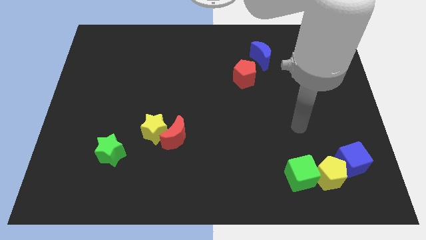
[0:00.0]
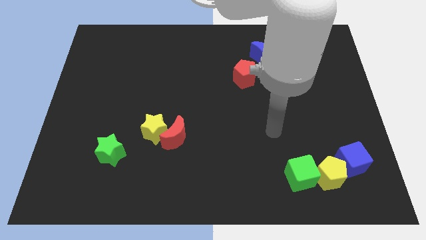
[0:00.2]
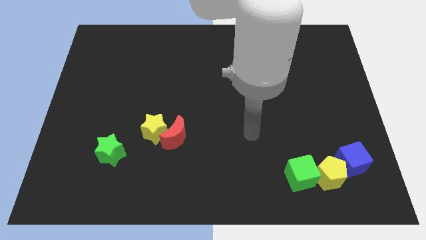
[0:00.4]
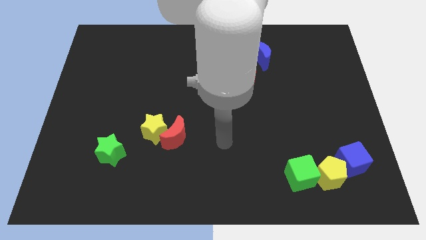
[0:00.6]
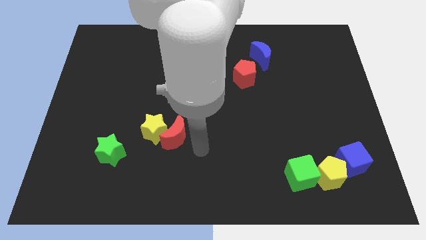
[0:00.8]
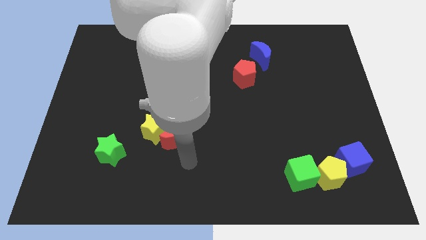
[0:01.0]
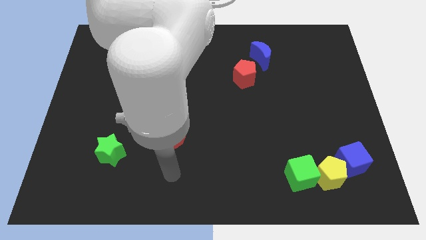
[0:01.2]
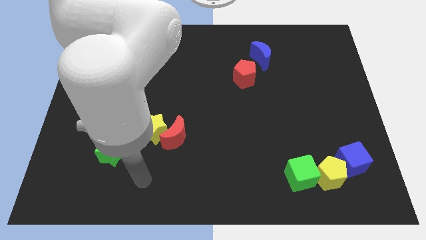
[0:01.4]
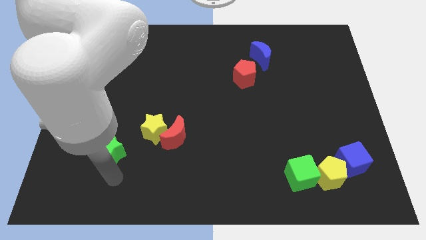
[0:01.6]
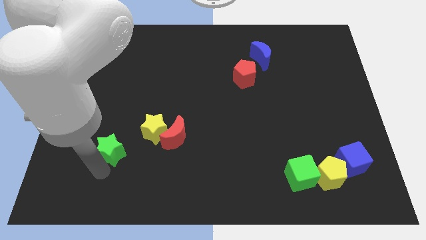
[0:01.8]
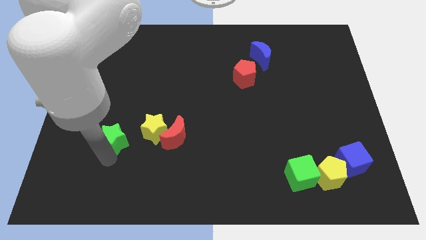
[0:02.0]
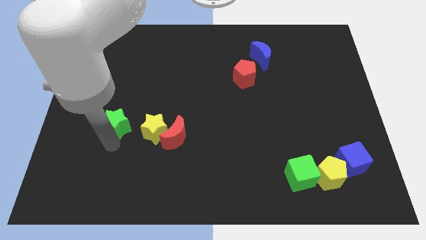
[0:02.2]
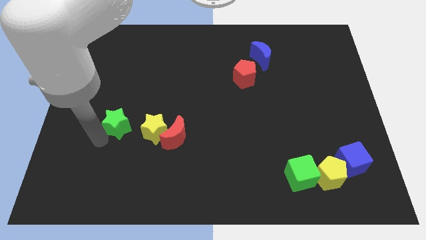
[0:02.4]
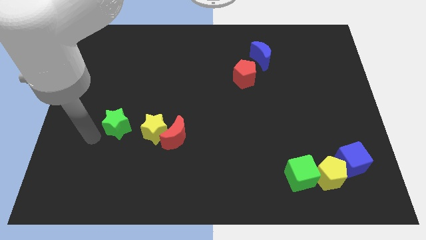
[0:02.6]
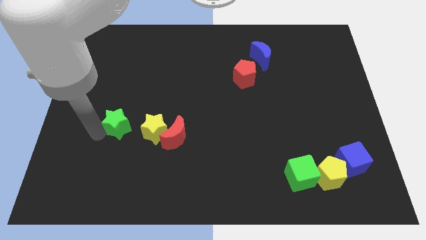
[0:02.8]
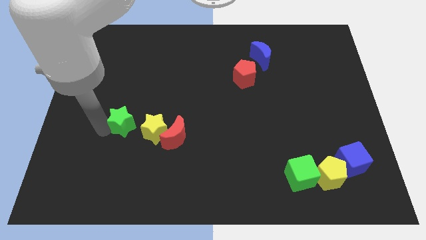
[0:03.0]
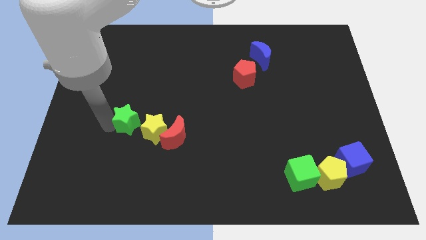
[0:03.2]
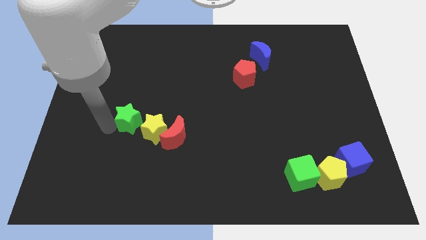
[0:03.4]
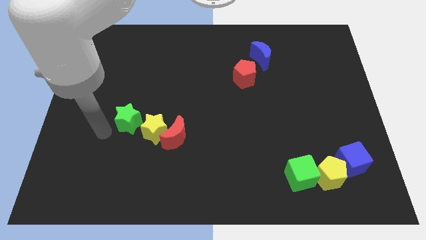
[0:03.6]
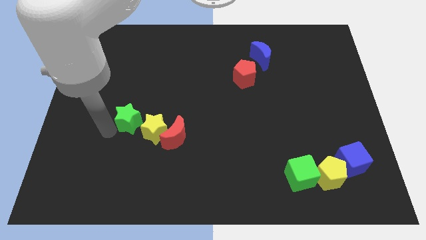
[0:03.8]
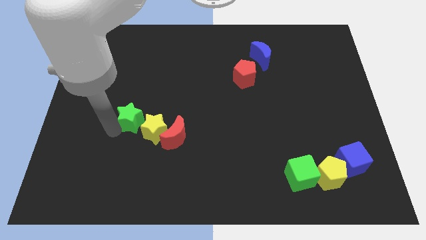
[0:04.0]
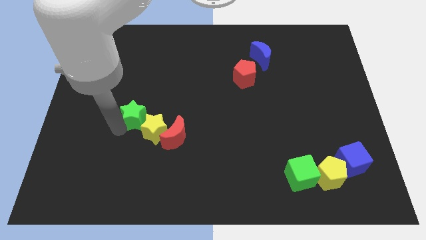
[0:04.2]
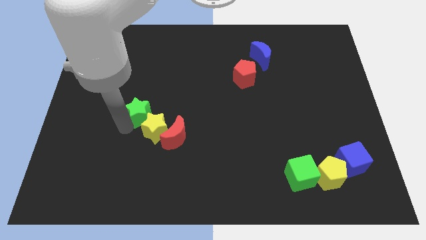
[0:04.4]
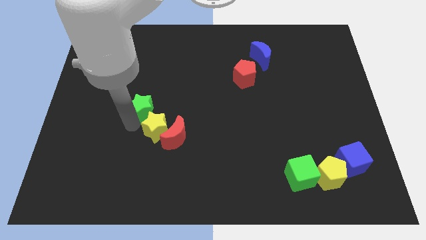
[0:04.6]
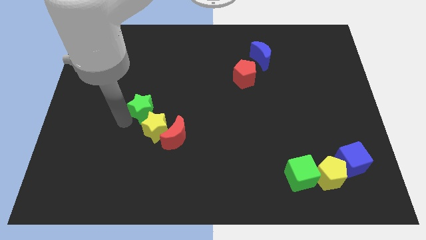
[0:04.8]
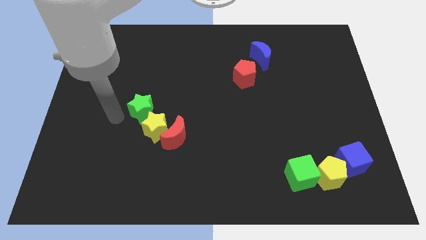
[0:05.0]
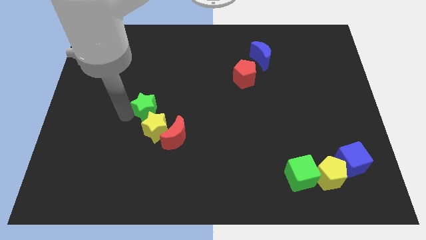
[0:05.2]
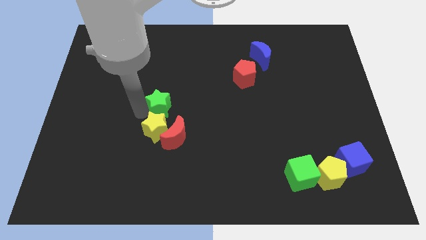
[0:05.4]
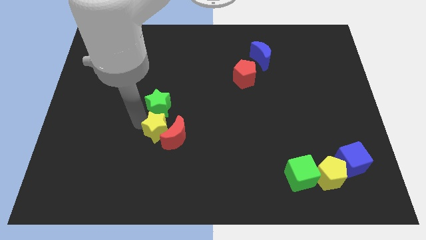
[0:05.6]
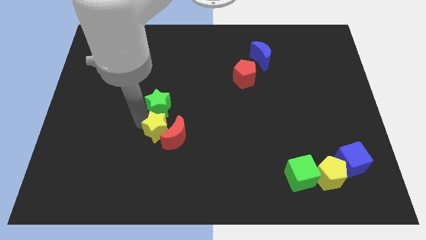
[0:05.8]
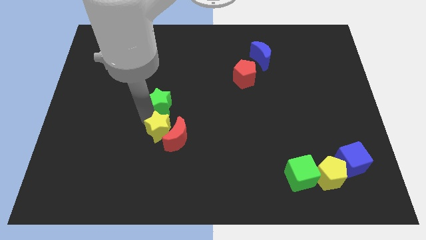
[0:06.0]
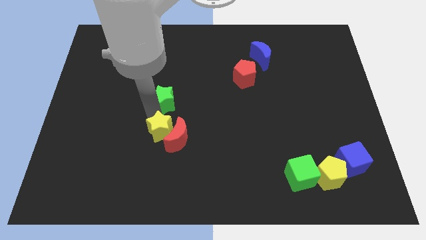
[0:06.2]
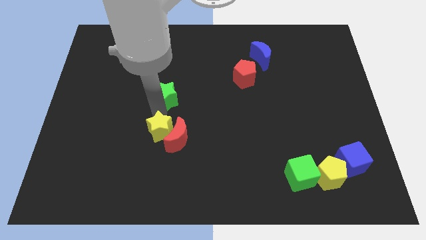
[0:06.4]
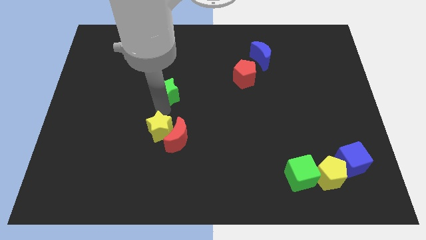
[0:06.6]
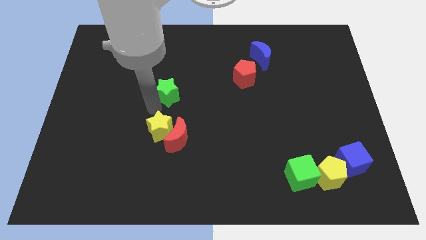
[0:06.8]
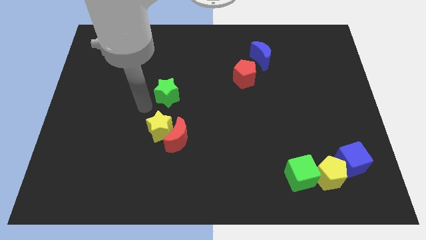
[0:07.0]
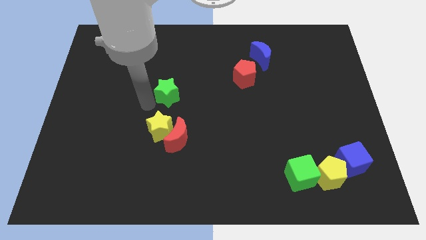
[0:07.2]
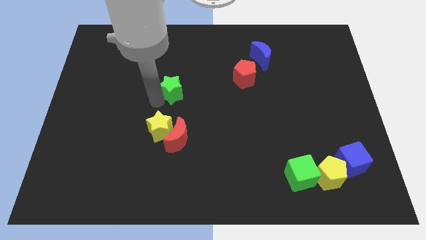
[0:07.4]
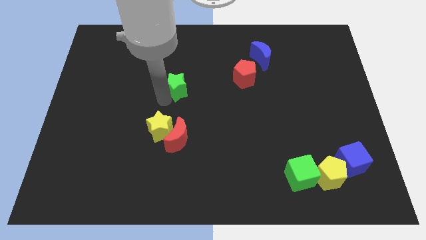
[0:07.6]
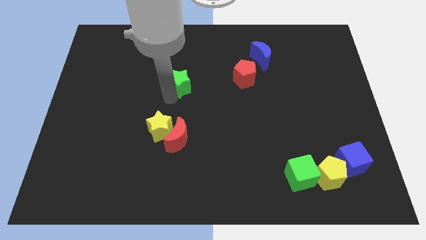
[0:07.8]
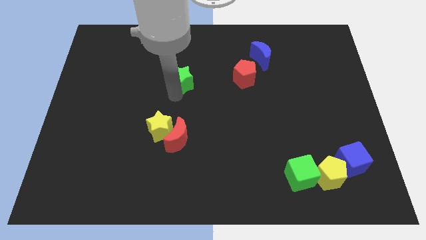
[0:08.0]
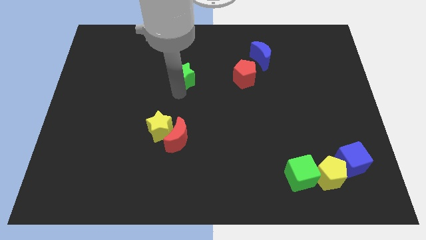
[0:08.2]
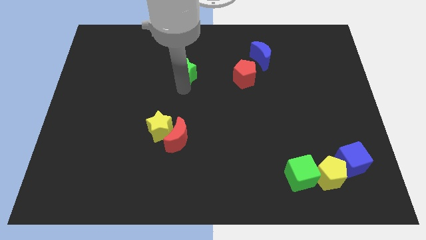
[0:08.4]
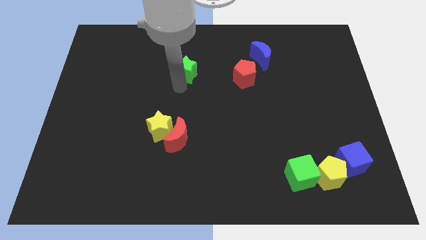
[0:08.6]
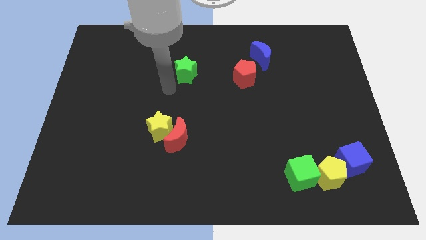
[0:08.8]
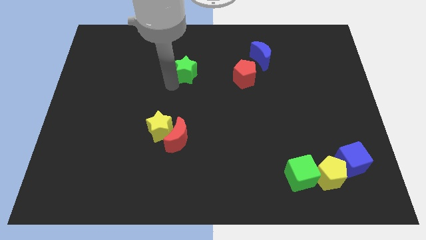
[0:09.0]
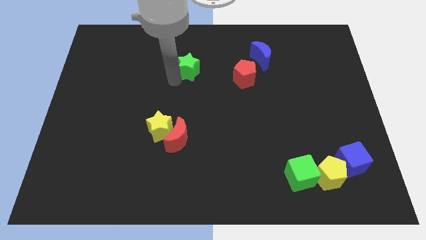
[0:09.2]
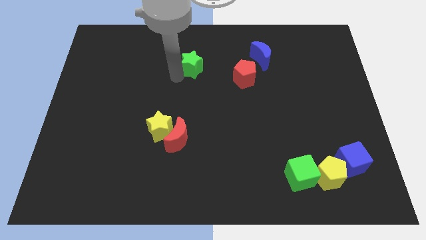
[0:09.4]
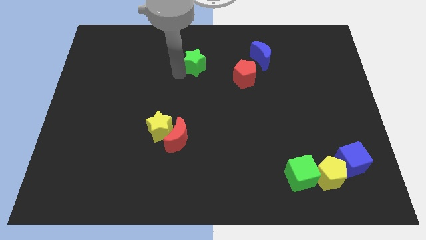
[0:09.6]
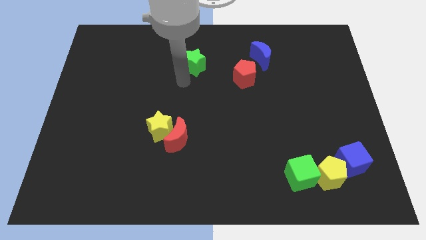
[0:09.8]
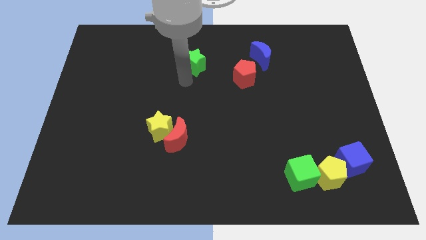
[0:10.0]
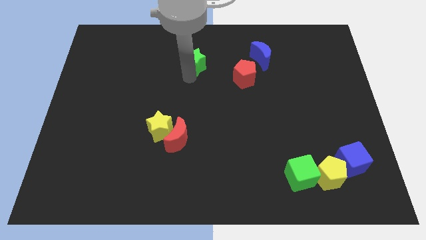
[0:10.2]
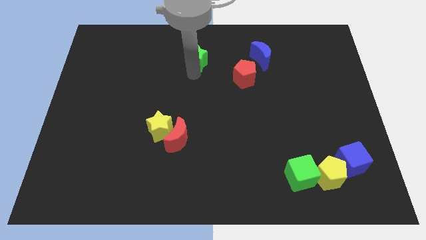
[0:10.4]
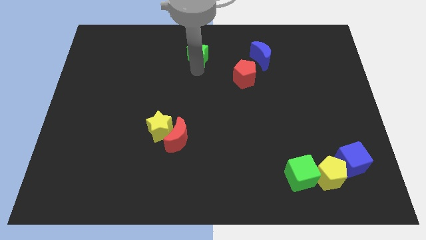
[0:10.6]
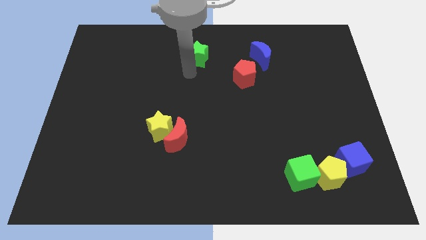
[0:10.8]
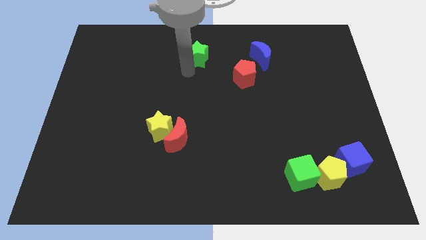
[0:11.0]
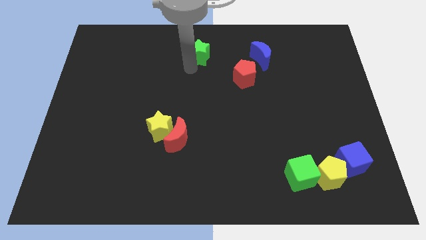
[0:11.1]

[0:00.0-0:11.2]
move the green star to the top
